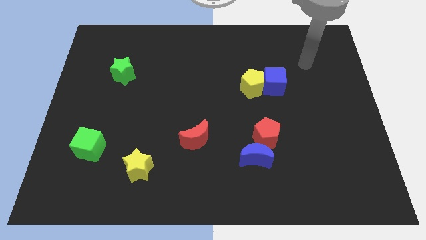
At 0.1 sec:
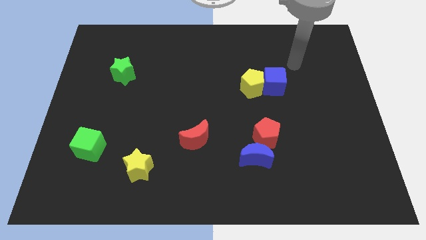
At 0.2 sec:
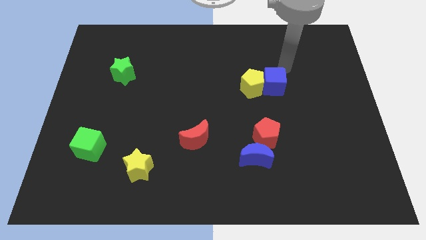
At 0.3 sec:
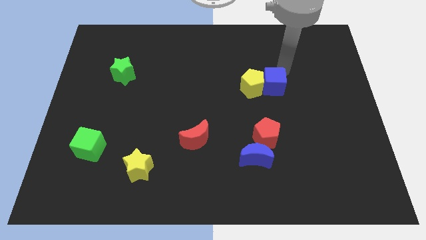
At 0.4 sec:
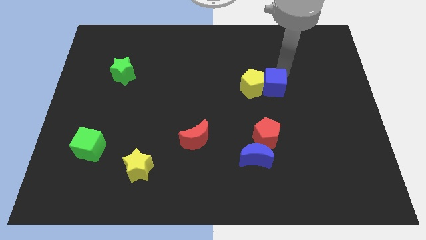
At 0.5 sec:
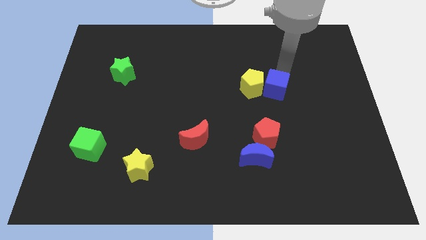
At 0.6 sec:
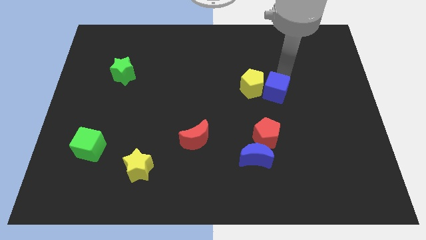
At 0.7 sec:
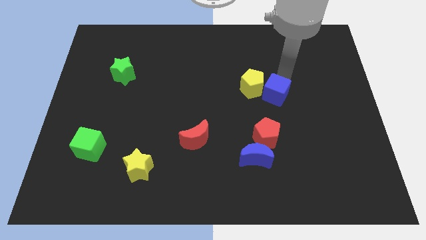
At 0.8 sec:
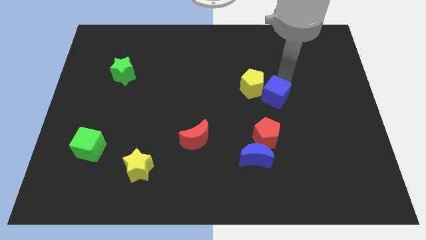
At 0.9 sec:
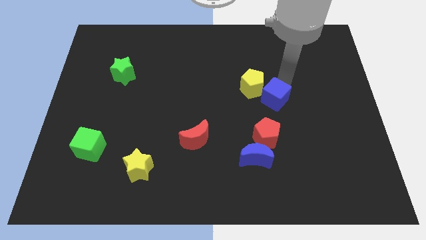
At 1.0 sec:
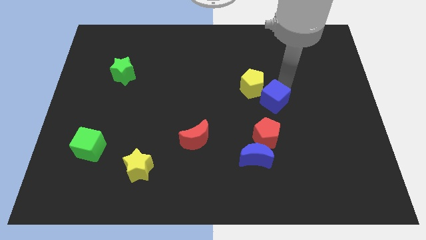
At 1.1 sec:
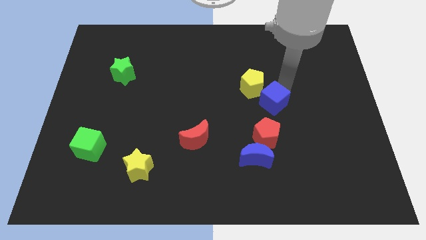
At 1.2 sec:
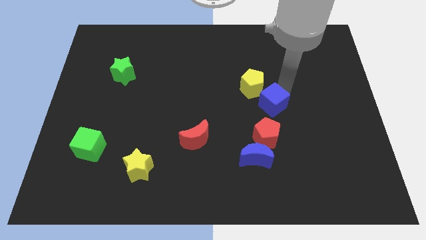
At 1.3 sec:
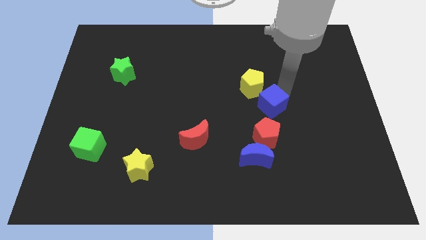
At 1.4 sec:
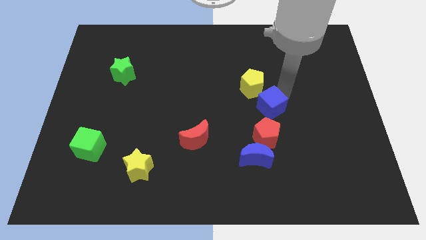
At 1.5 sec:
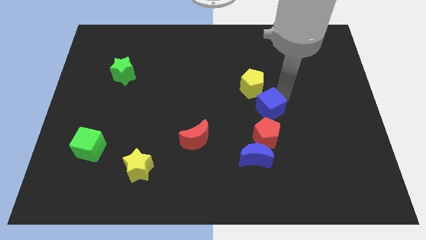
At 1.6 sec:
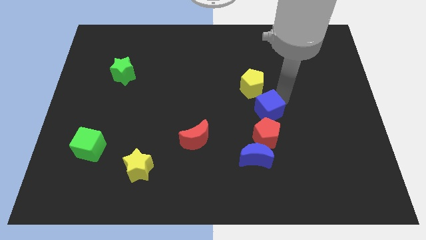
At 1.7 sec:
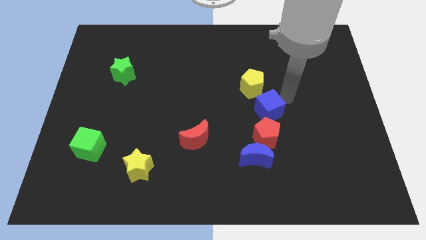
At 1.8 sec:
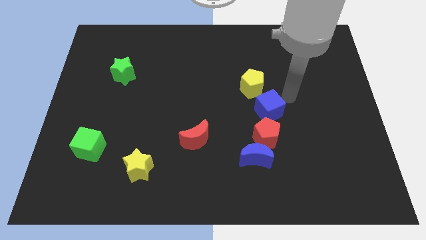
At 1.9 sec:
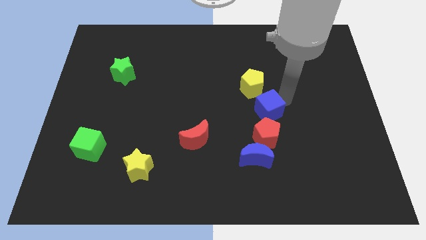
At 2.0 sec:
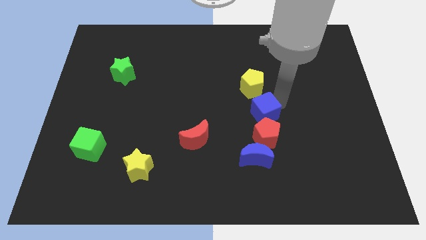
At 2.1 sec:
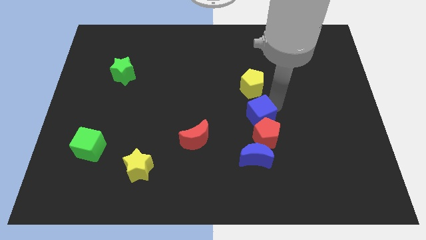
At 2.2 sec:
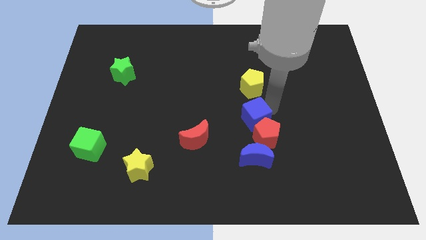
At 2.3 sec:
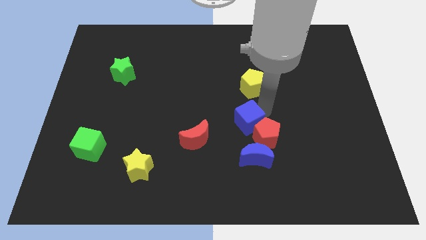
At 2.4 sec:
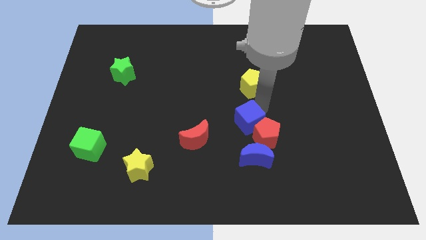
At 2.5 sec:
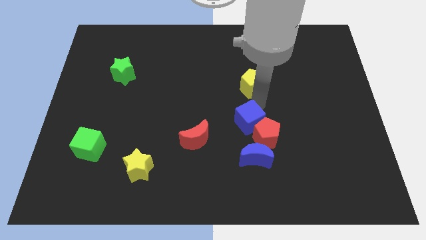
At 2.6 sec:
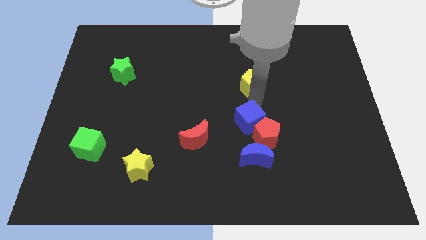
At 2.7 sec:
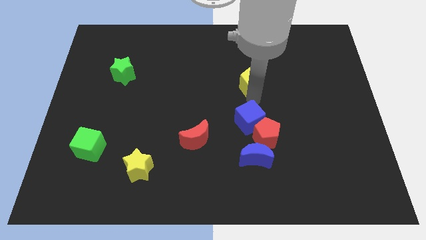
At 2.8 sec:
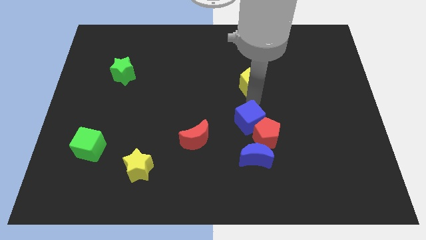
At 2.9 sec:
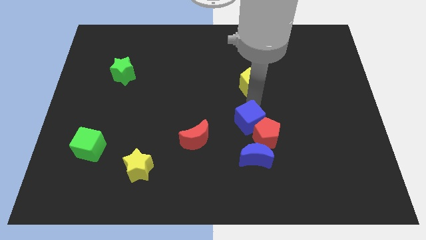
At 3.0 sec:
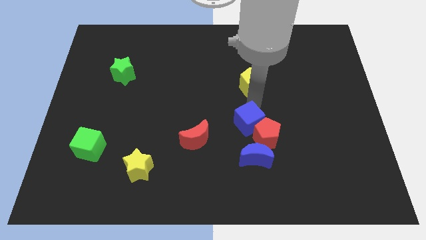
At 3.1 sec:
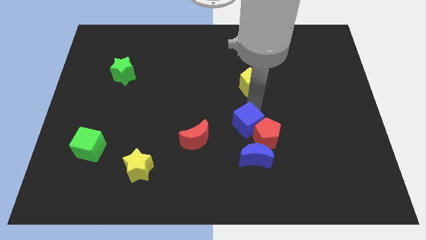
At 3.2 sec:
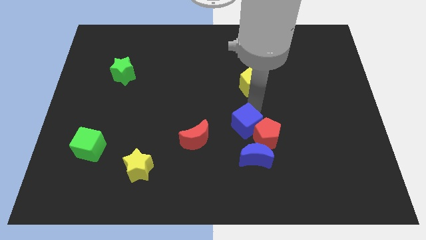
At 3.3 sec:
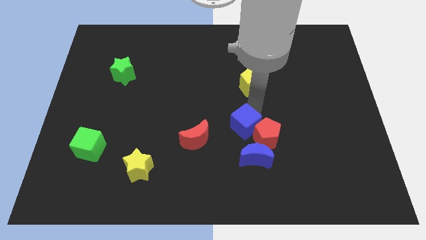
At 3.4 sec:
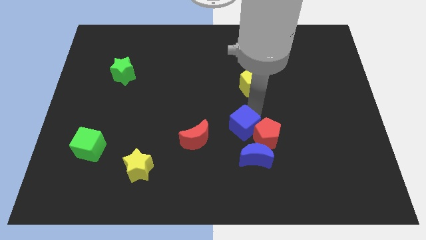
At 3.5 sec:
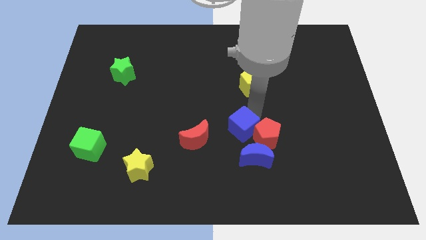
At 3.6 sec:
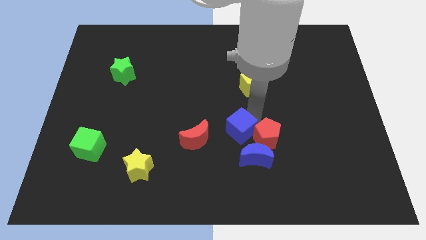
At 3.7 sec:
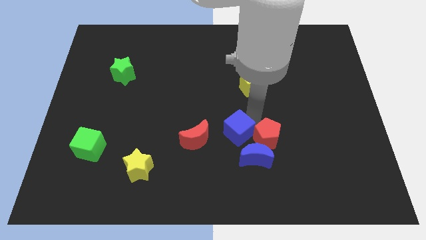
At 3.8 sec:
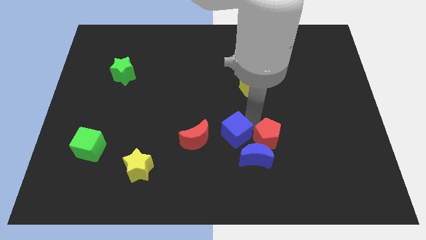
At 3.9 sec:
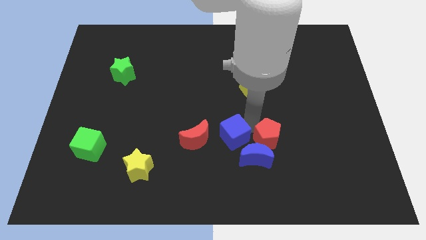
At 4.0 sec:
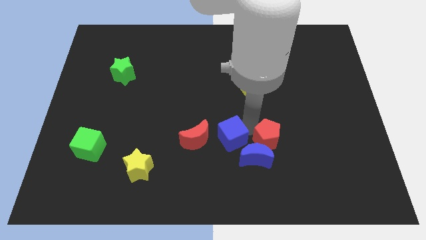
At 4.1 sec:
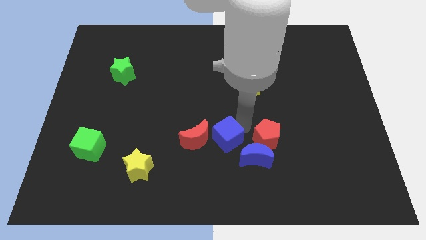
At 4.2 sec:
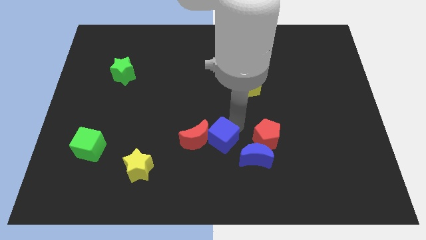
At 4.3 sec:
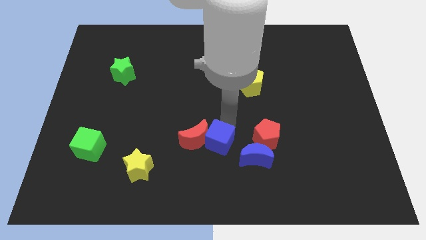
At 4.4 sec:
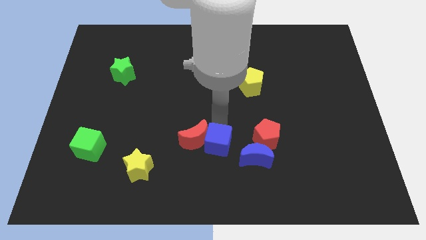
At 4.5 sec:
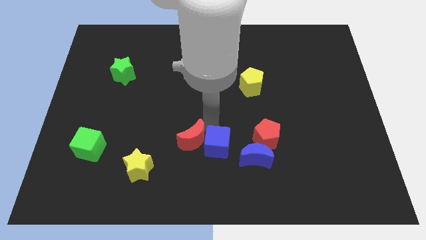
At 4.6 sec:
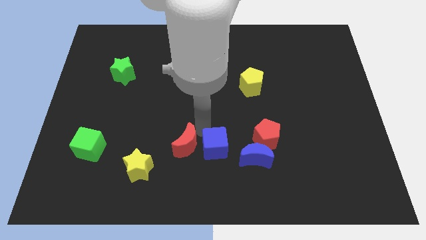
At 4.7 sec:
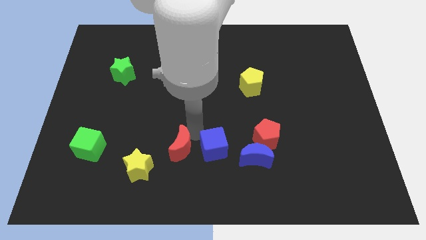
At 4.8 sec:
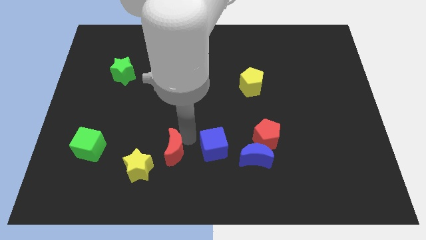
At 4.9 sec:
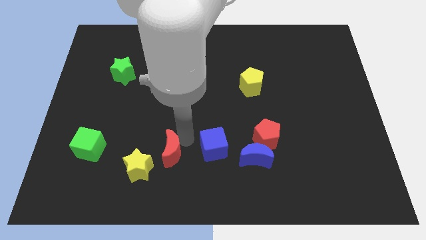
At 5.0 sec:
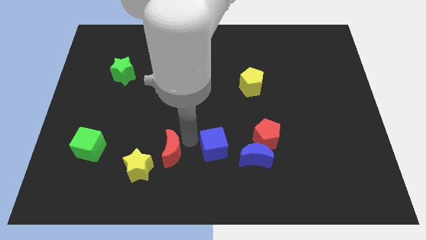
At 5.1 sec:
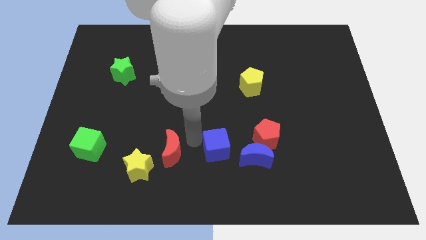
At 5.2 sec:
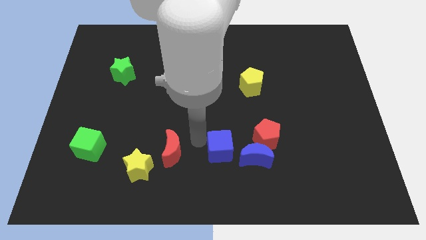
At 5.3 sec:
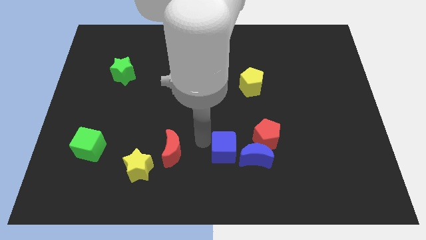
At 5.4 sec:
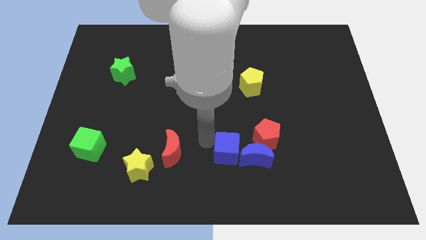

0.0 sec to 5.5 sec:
push the blue cube towards the blue moon

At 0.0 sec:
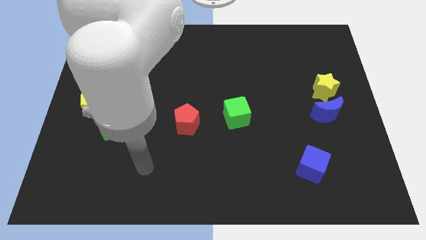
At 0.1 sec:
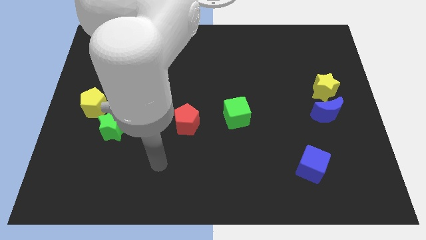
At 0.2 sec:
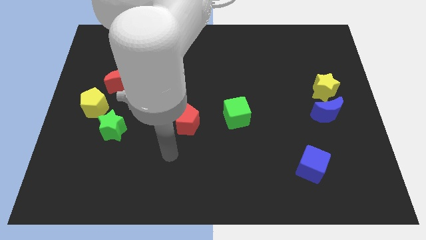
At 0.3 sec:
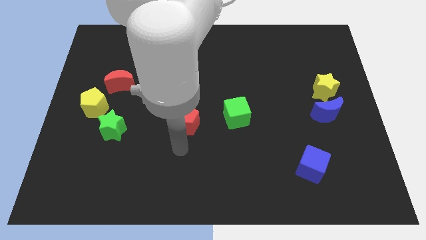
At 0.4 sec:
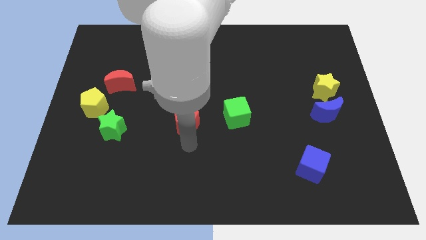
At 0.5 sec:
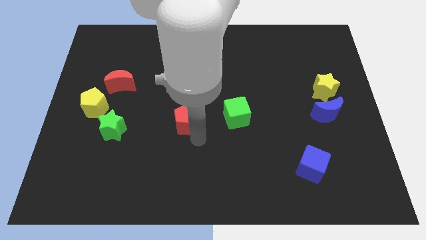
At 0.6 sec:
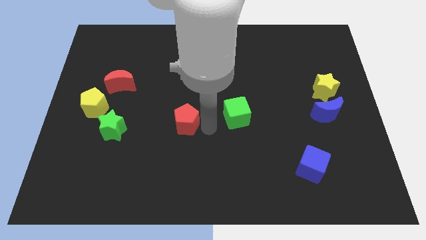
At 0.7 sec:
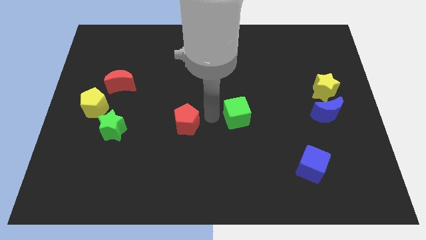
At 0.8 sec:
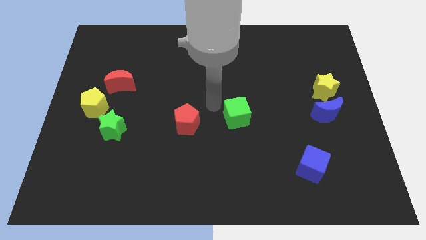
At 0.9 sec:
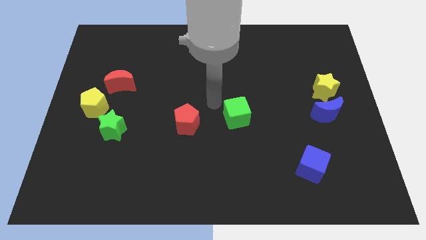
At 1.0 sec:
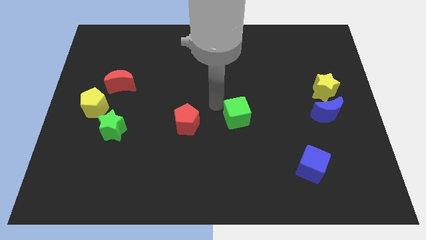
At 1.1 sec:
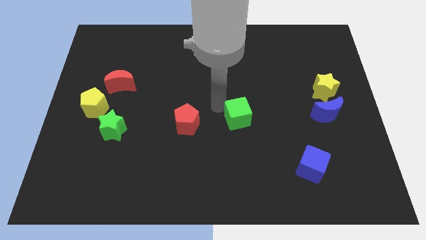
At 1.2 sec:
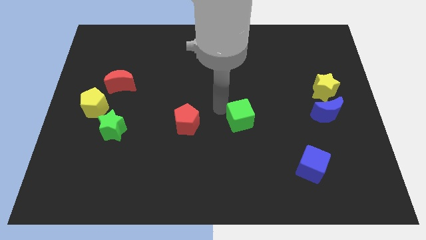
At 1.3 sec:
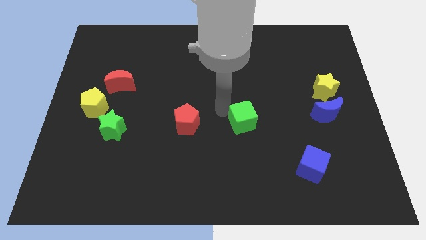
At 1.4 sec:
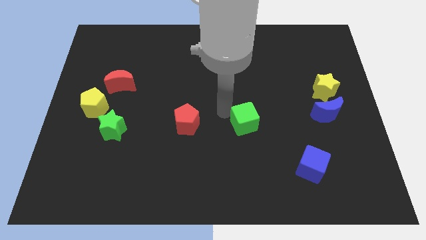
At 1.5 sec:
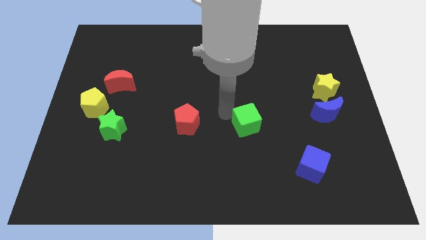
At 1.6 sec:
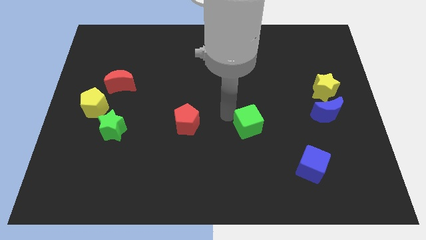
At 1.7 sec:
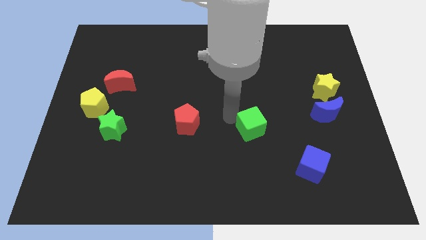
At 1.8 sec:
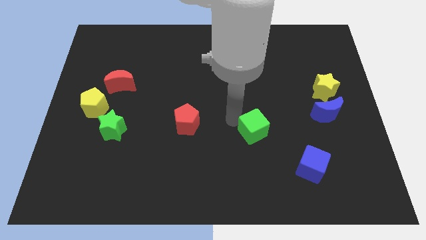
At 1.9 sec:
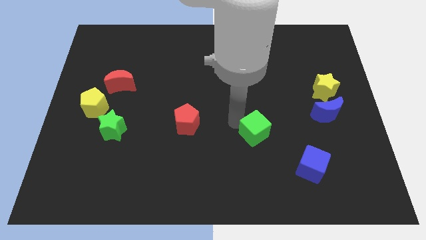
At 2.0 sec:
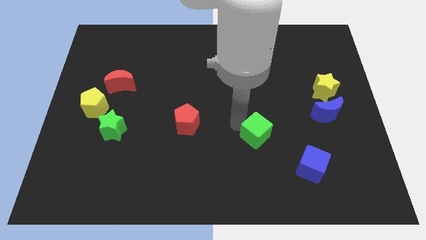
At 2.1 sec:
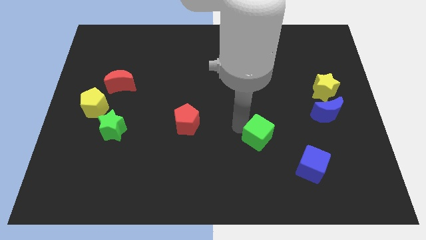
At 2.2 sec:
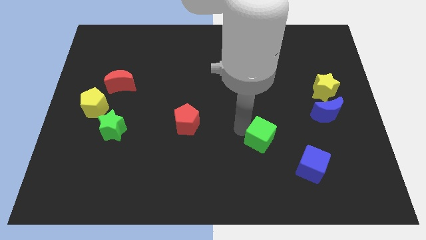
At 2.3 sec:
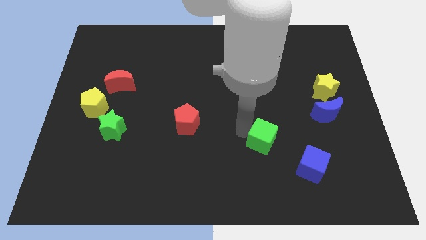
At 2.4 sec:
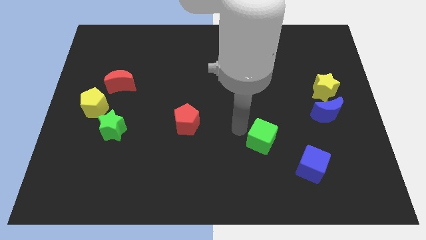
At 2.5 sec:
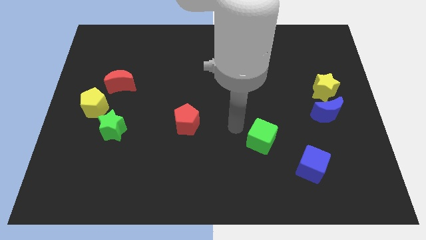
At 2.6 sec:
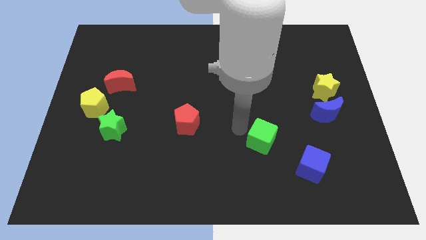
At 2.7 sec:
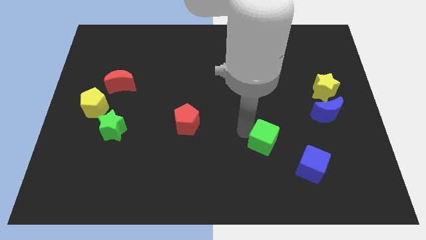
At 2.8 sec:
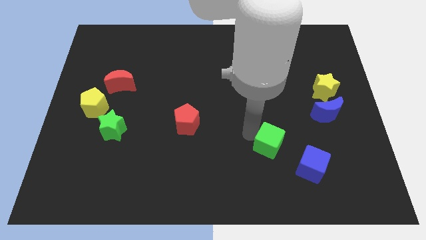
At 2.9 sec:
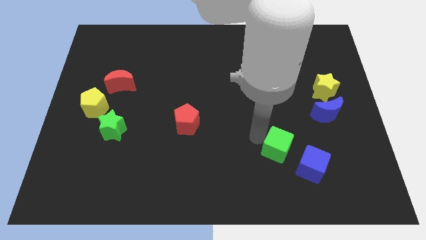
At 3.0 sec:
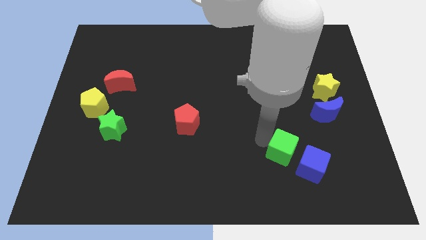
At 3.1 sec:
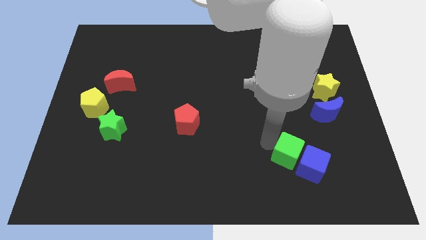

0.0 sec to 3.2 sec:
move the green cube towards the blue cube
